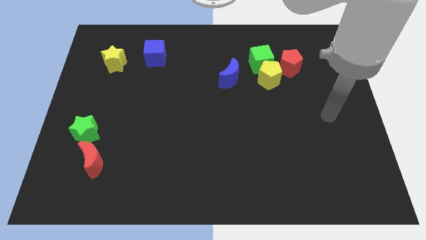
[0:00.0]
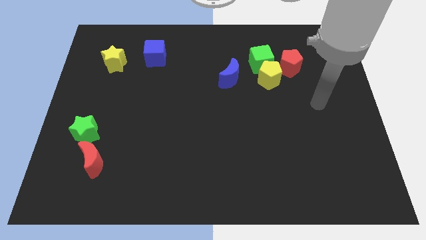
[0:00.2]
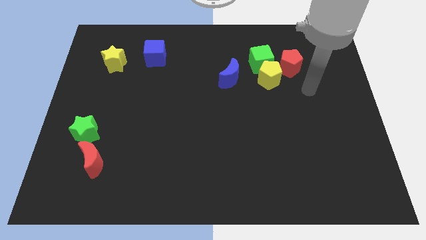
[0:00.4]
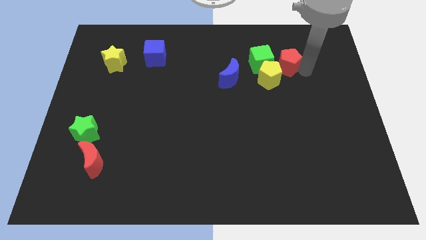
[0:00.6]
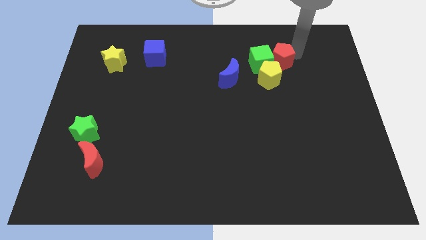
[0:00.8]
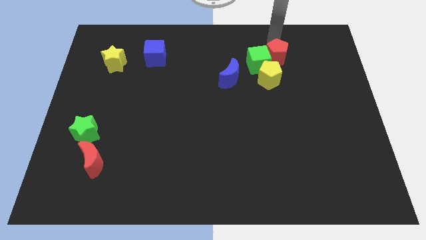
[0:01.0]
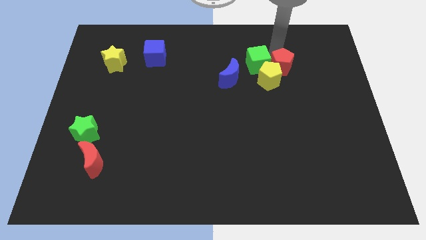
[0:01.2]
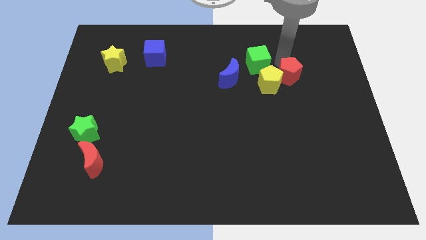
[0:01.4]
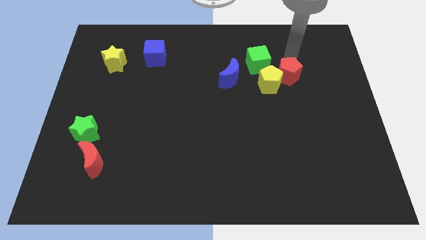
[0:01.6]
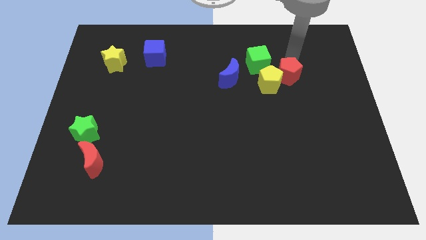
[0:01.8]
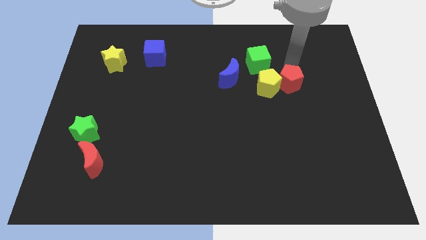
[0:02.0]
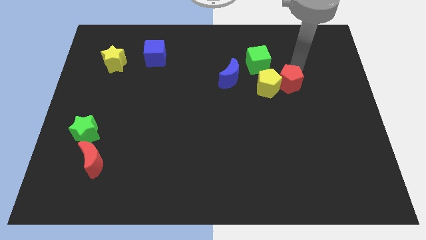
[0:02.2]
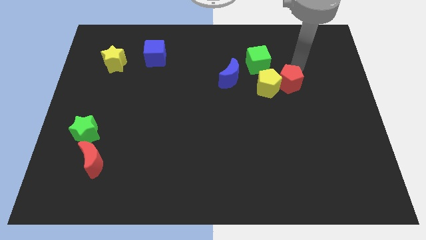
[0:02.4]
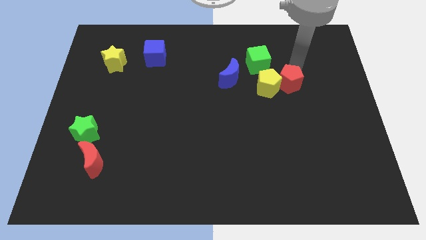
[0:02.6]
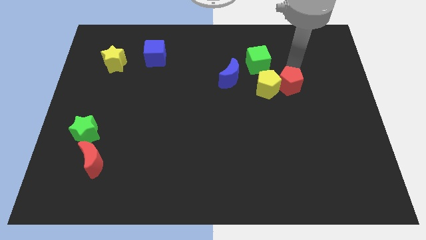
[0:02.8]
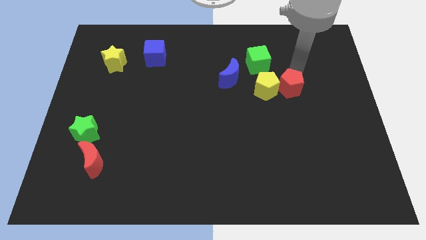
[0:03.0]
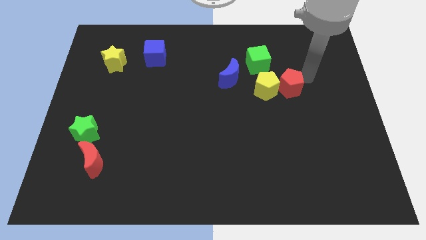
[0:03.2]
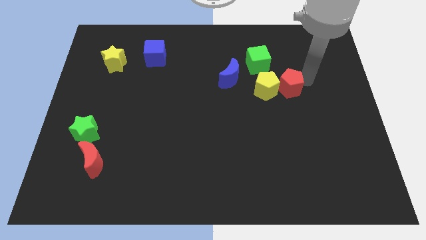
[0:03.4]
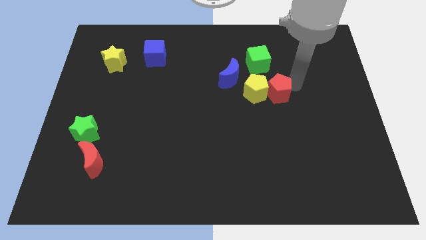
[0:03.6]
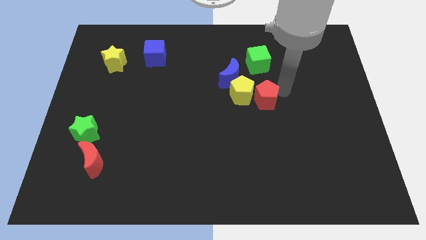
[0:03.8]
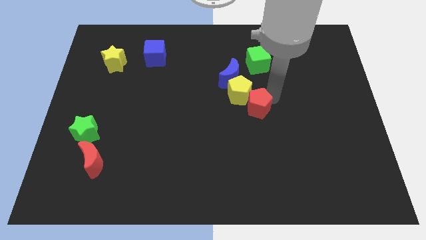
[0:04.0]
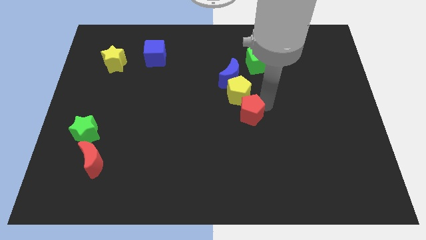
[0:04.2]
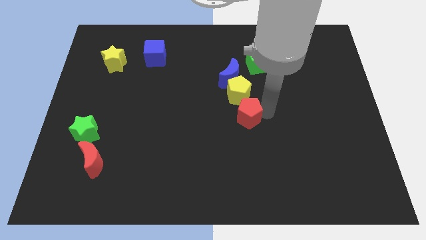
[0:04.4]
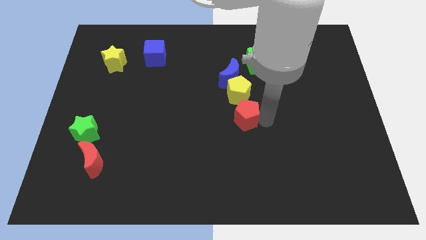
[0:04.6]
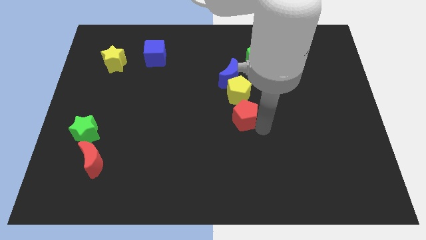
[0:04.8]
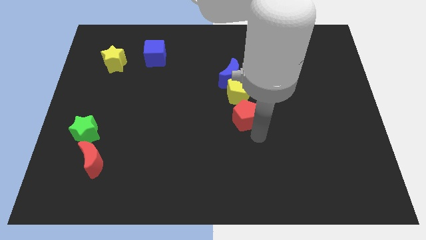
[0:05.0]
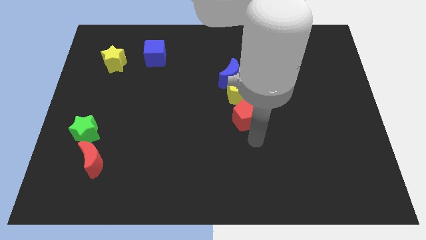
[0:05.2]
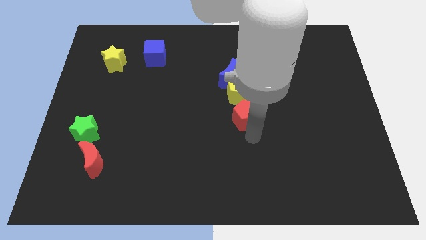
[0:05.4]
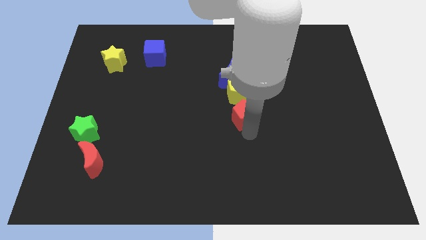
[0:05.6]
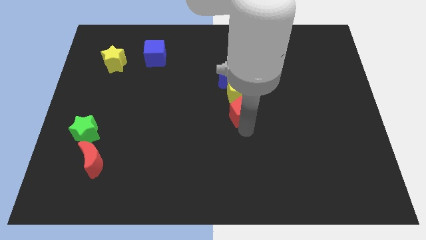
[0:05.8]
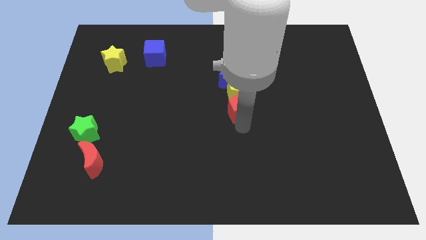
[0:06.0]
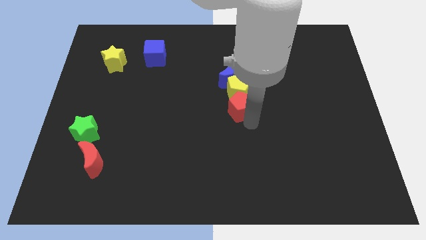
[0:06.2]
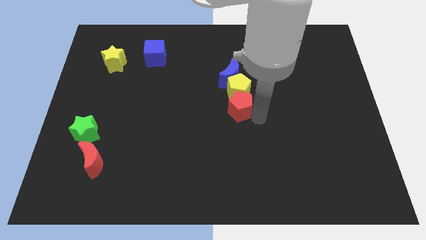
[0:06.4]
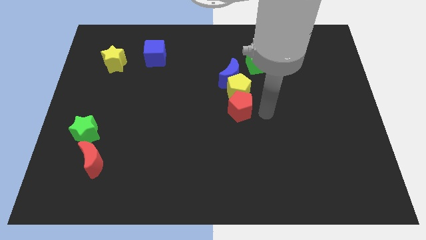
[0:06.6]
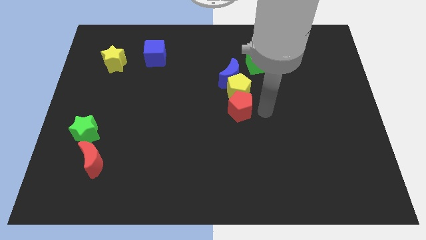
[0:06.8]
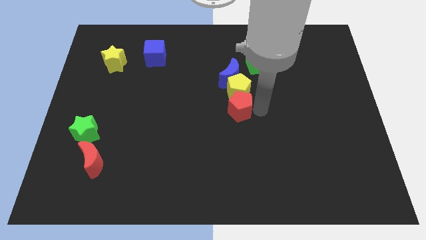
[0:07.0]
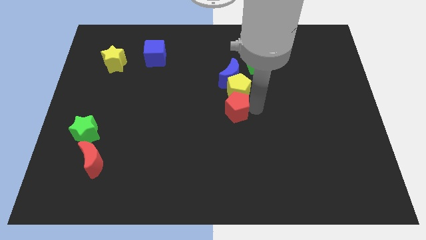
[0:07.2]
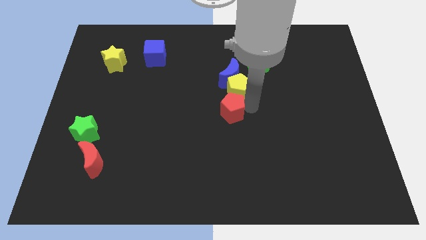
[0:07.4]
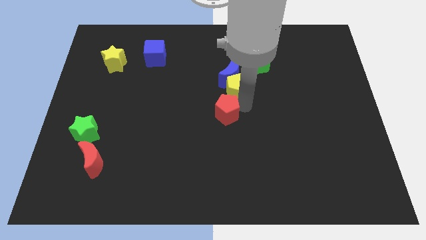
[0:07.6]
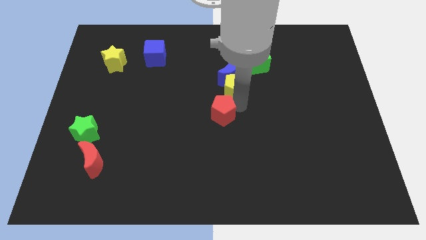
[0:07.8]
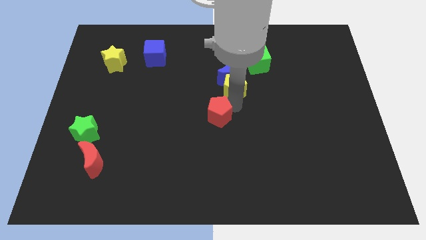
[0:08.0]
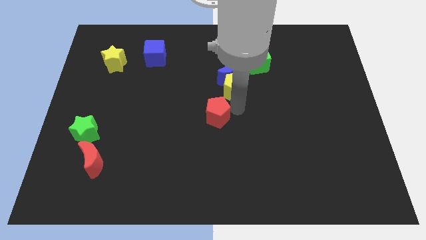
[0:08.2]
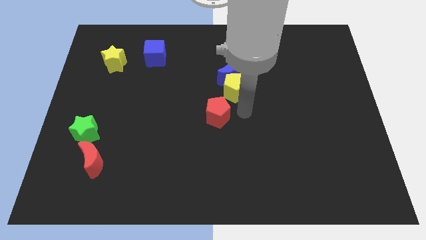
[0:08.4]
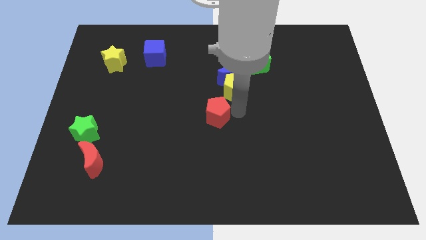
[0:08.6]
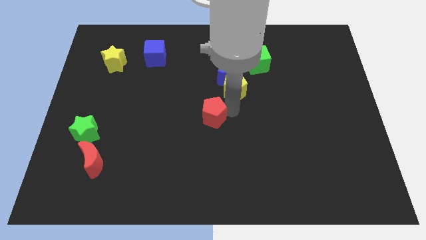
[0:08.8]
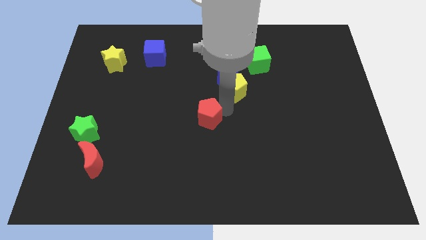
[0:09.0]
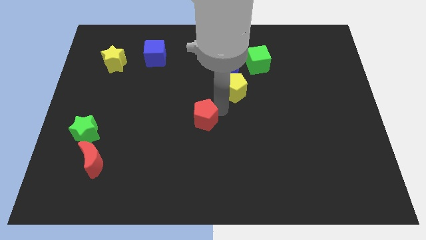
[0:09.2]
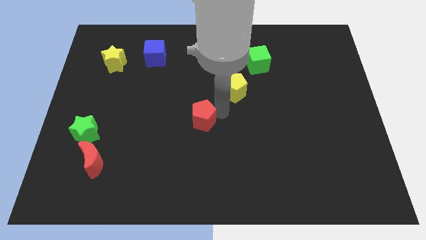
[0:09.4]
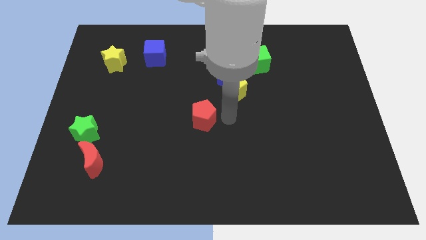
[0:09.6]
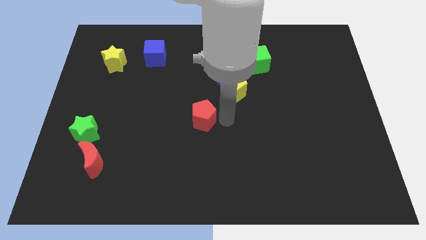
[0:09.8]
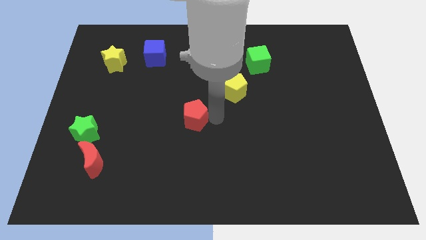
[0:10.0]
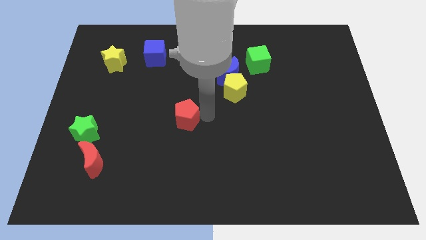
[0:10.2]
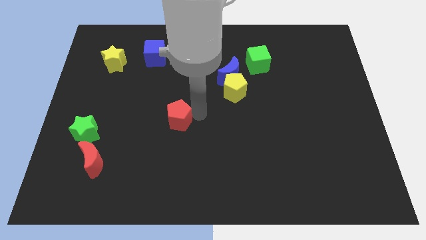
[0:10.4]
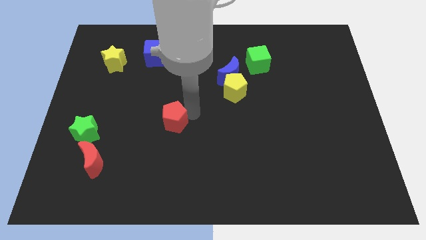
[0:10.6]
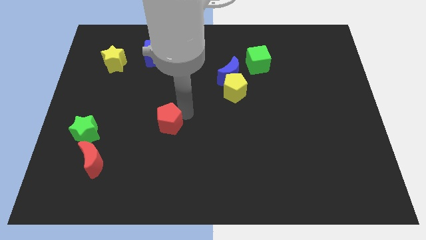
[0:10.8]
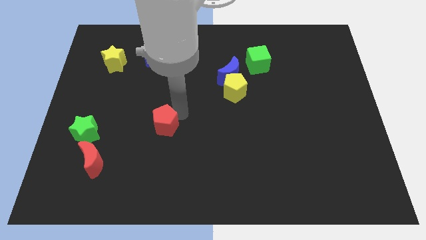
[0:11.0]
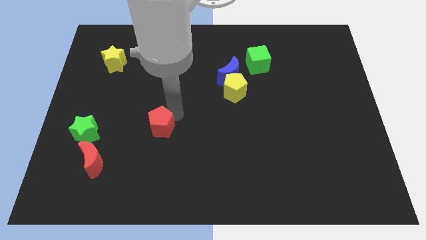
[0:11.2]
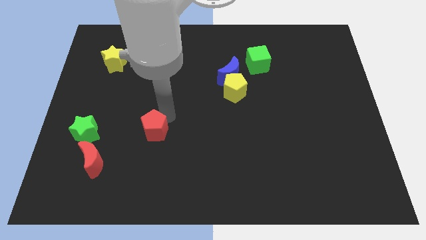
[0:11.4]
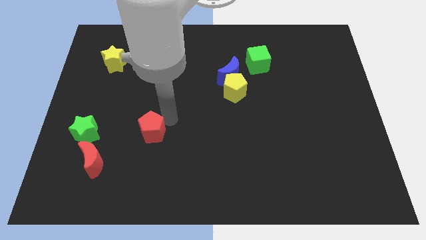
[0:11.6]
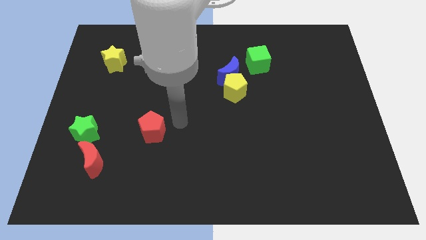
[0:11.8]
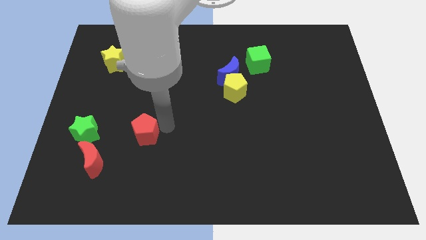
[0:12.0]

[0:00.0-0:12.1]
put the red pentagon to the top right of the red moon

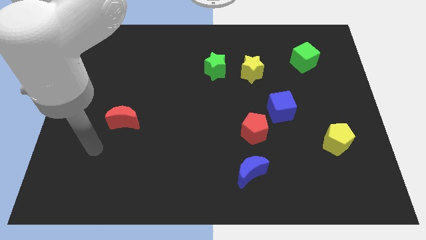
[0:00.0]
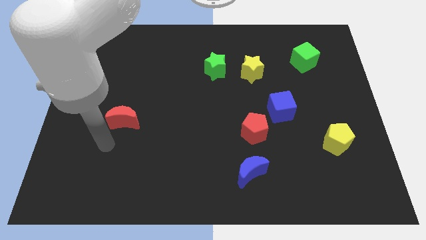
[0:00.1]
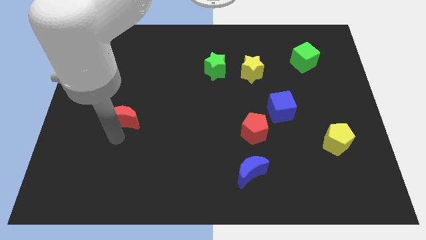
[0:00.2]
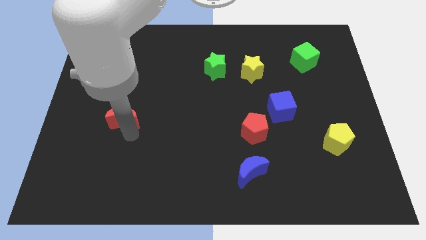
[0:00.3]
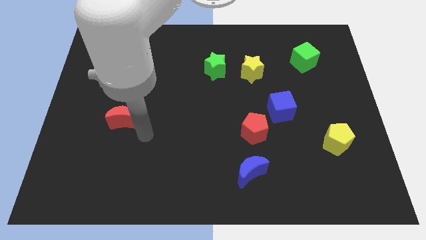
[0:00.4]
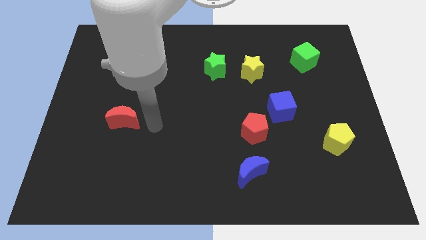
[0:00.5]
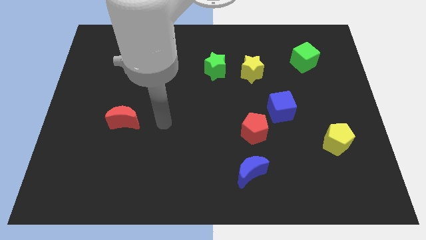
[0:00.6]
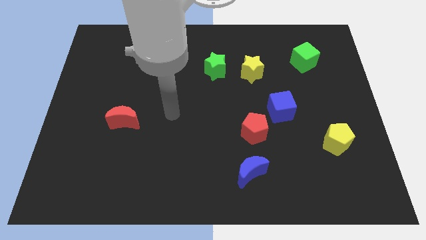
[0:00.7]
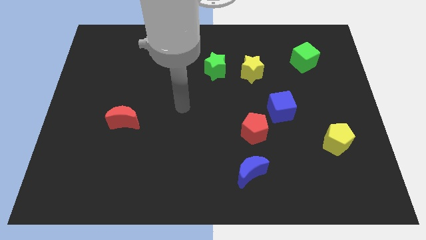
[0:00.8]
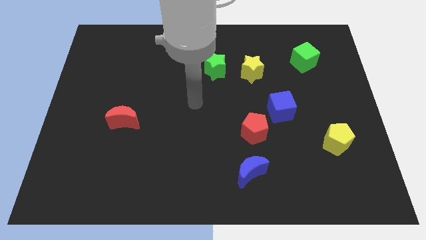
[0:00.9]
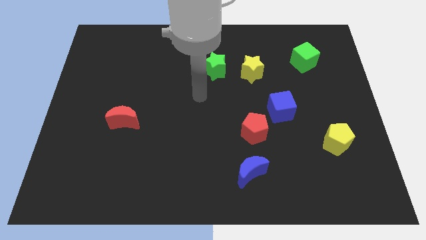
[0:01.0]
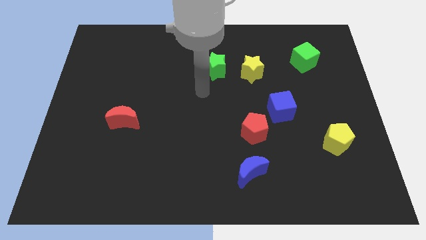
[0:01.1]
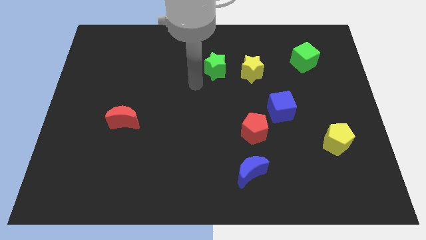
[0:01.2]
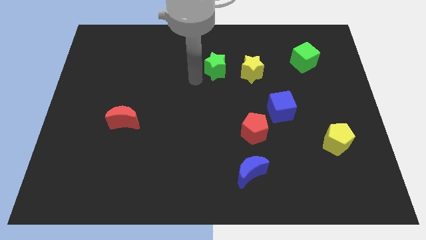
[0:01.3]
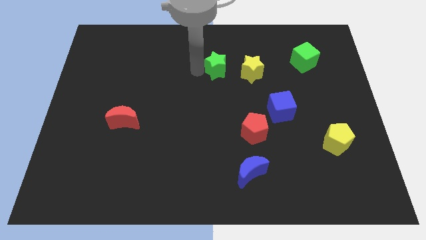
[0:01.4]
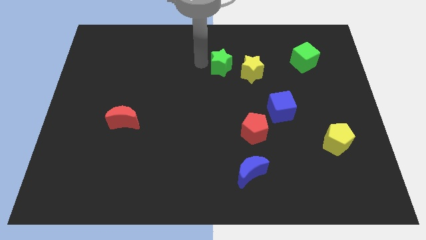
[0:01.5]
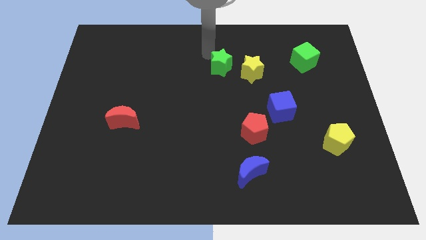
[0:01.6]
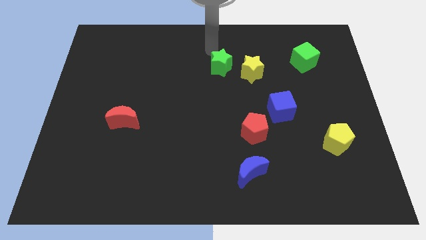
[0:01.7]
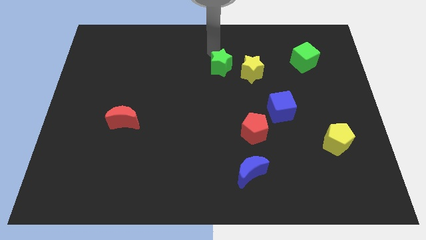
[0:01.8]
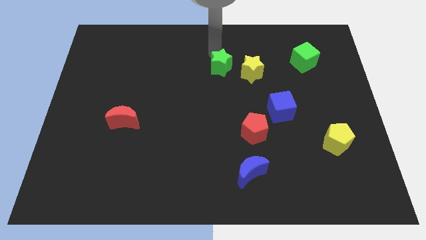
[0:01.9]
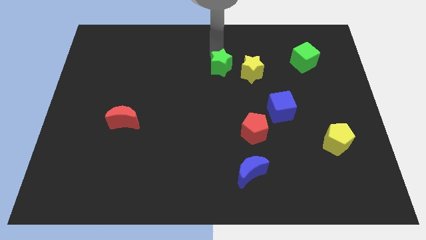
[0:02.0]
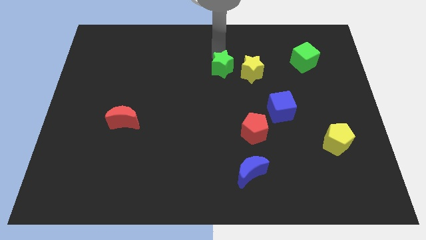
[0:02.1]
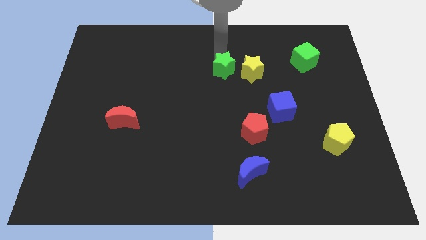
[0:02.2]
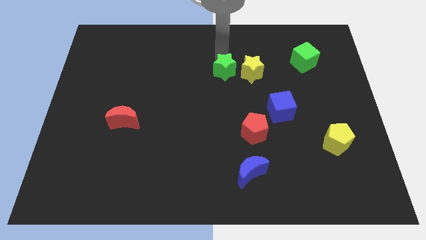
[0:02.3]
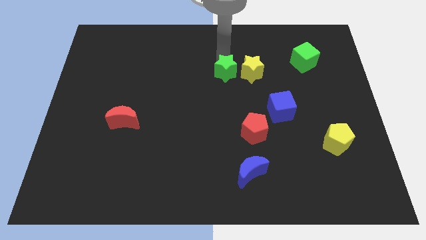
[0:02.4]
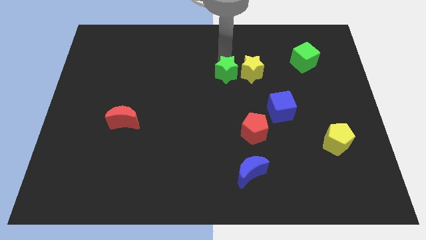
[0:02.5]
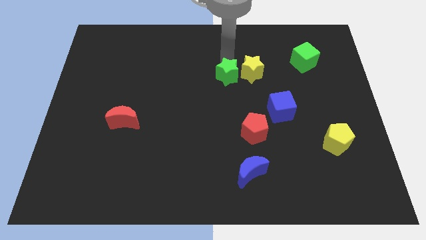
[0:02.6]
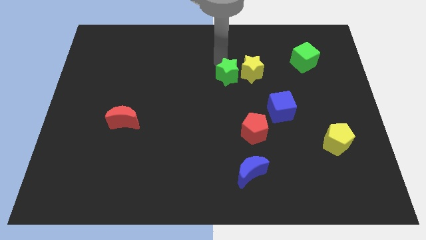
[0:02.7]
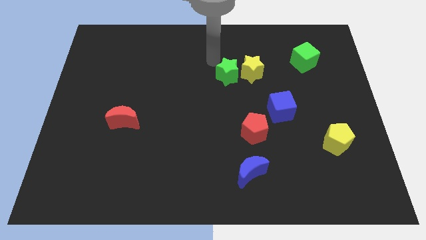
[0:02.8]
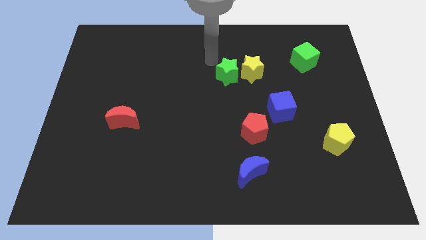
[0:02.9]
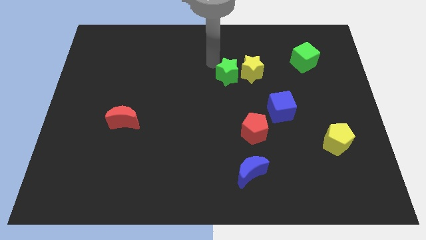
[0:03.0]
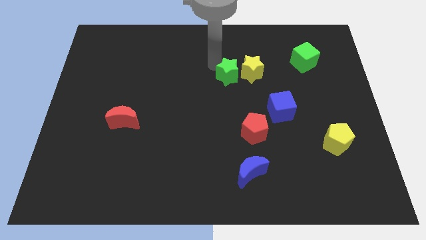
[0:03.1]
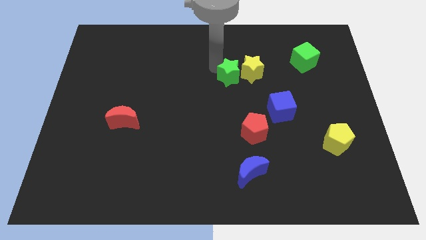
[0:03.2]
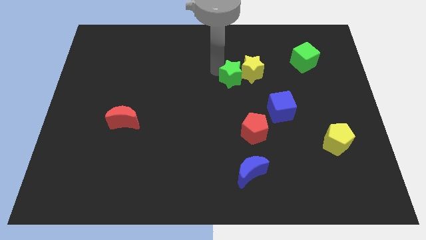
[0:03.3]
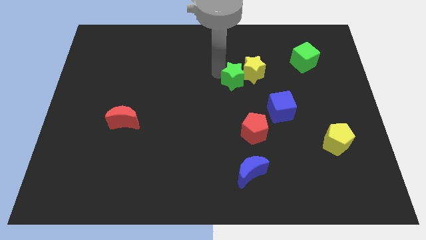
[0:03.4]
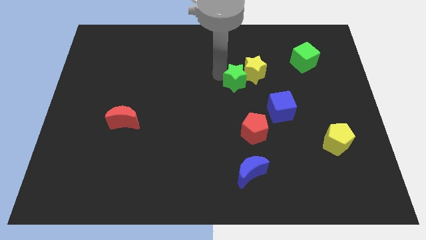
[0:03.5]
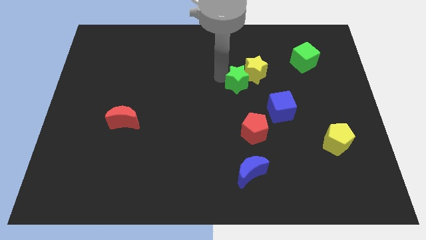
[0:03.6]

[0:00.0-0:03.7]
move the green star above the red pentagon
